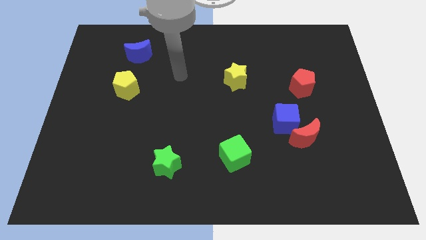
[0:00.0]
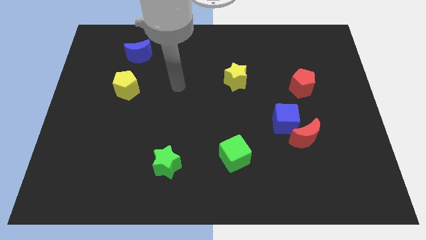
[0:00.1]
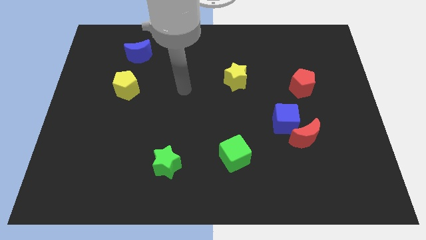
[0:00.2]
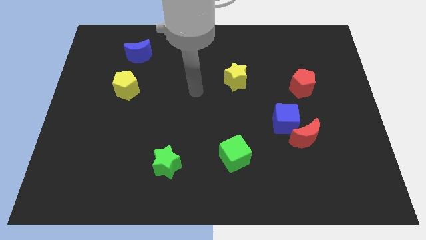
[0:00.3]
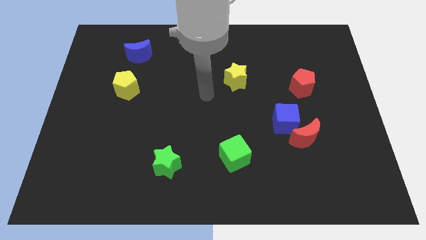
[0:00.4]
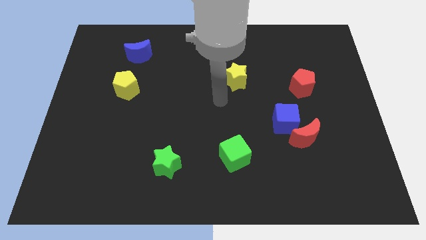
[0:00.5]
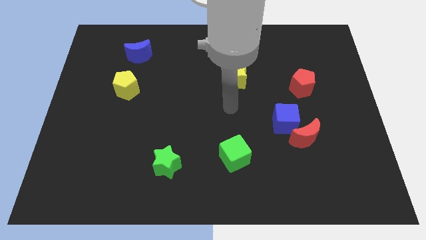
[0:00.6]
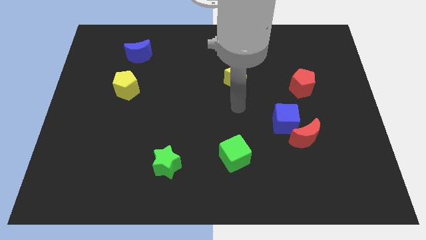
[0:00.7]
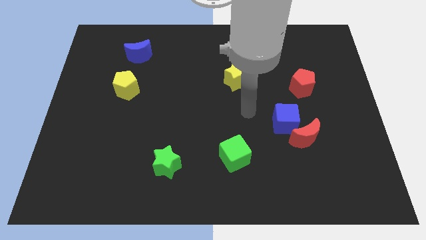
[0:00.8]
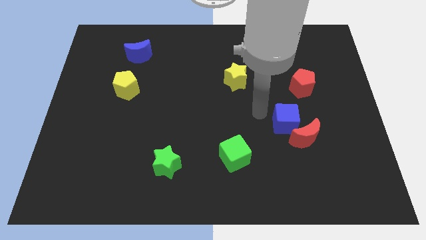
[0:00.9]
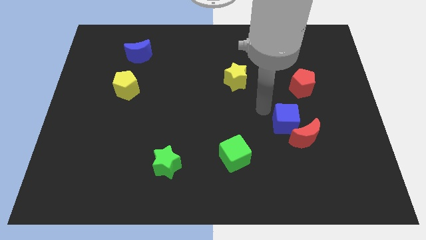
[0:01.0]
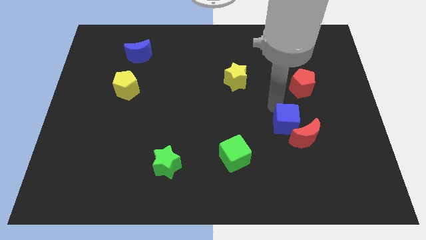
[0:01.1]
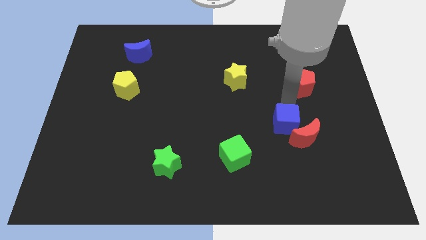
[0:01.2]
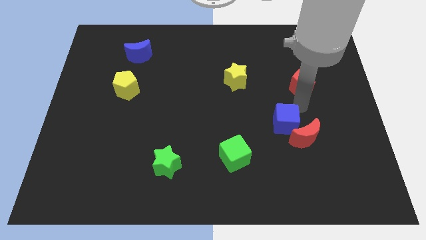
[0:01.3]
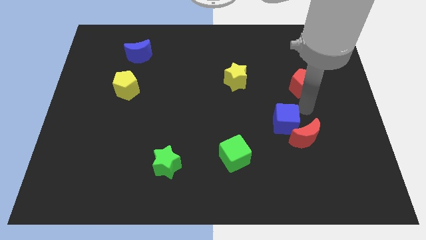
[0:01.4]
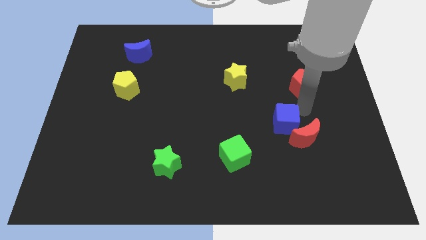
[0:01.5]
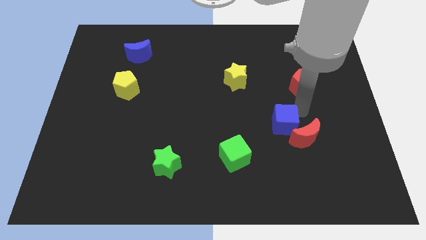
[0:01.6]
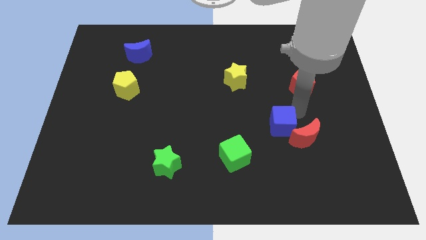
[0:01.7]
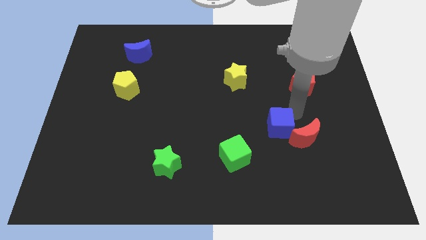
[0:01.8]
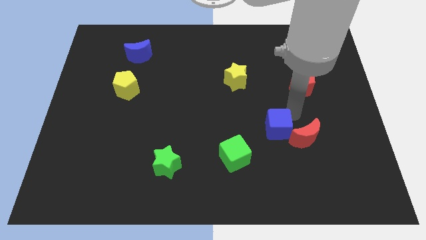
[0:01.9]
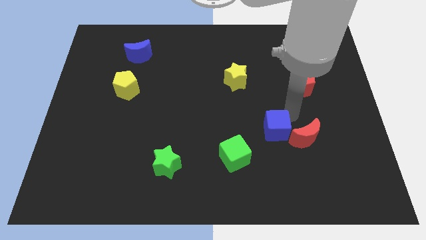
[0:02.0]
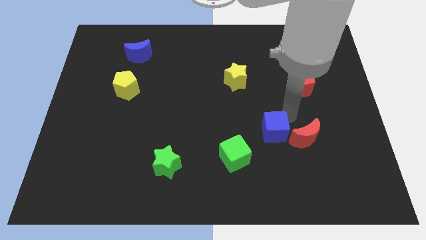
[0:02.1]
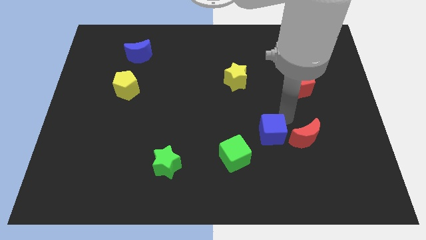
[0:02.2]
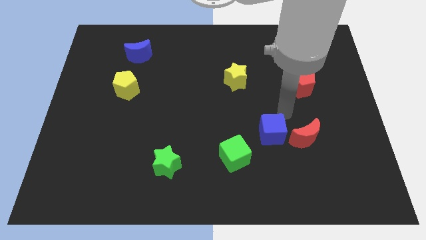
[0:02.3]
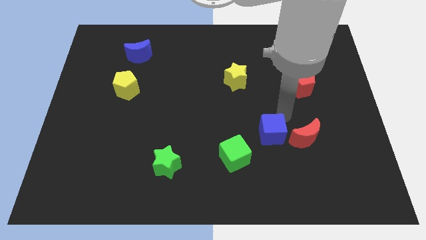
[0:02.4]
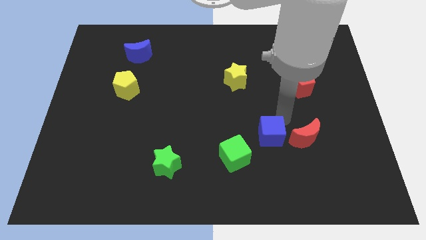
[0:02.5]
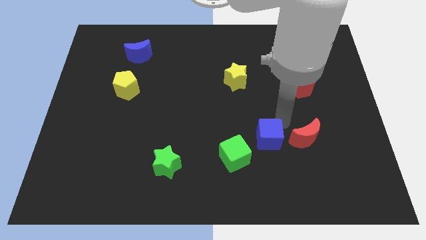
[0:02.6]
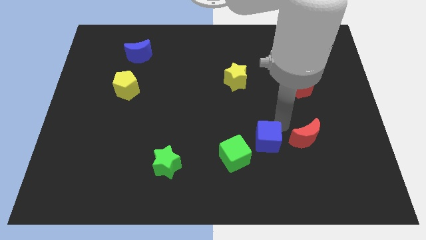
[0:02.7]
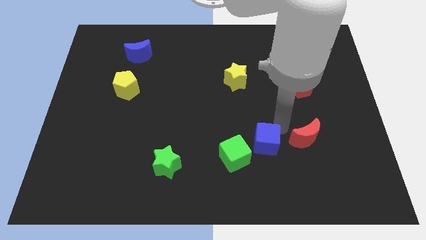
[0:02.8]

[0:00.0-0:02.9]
push the blue cube downwards and then left slightly

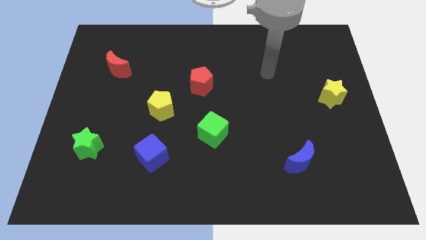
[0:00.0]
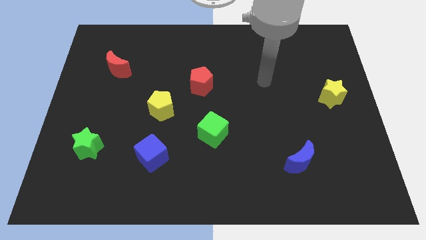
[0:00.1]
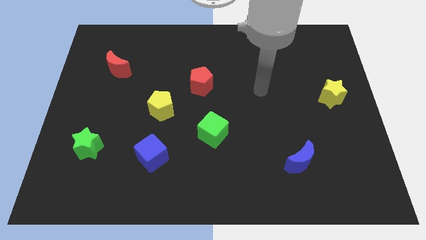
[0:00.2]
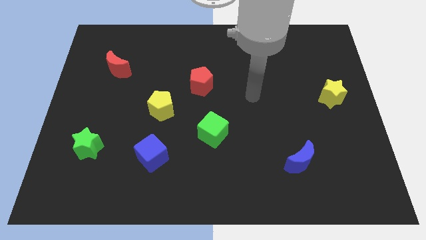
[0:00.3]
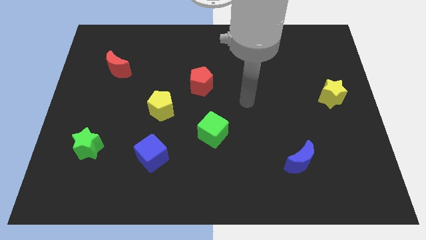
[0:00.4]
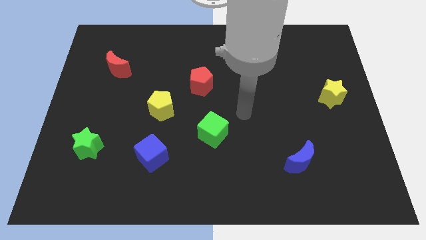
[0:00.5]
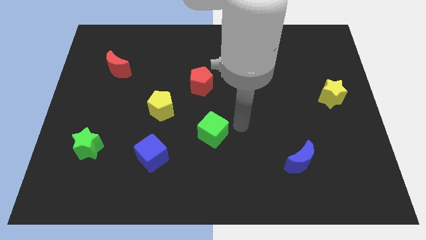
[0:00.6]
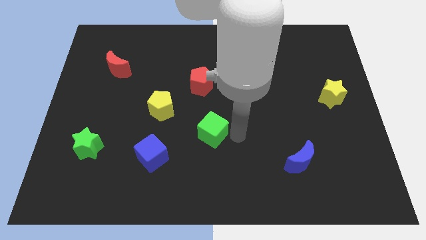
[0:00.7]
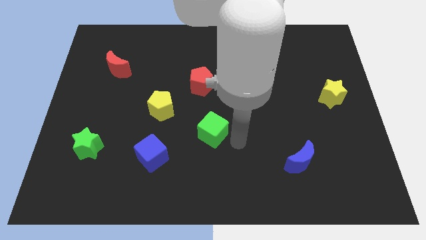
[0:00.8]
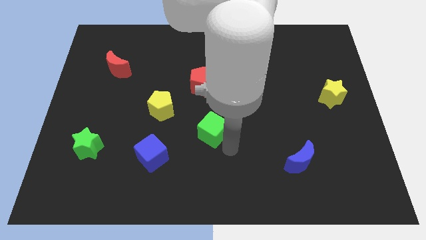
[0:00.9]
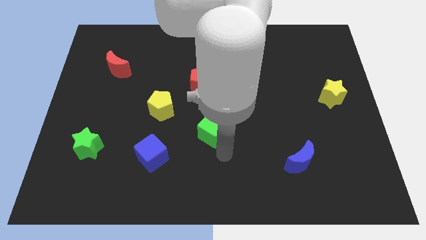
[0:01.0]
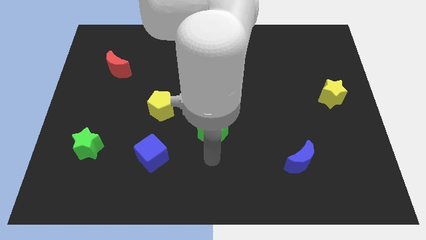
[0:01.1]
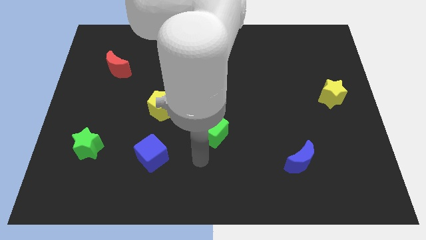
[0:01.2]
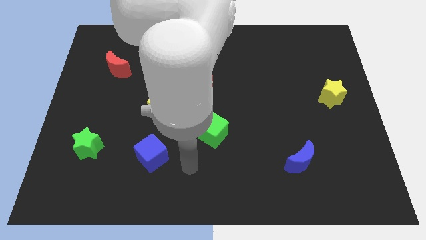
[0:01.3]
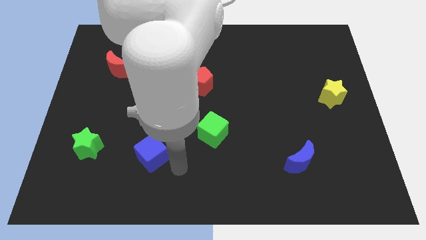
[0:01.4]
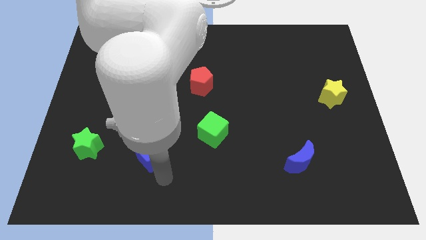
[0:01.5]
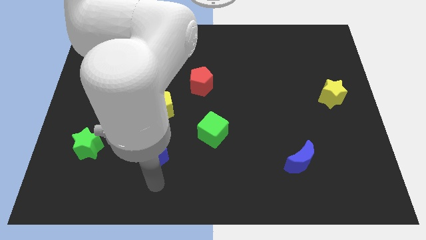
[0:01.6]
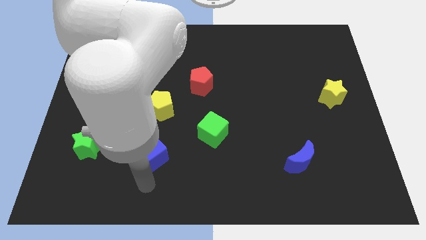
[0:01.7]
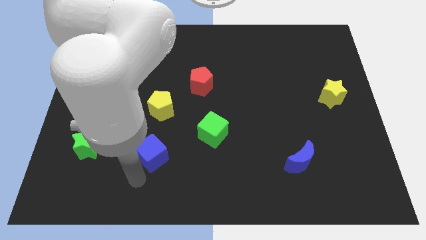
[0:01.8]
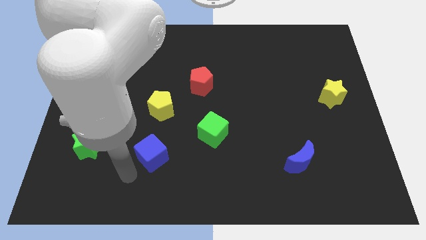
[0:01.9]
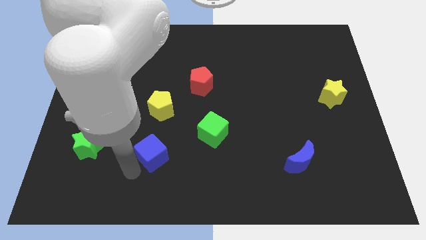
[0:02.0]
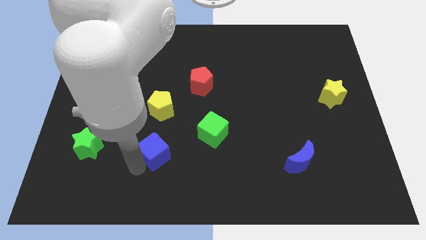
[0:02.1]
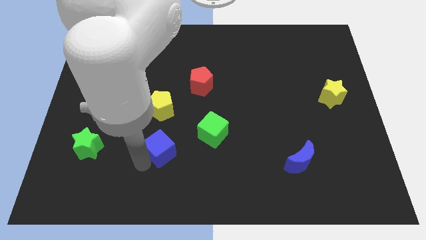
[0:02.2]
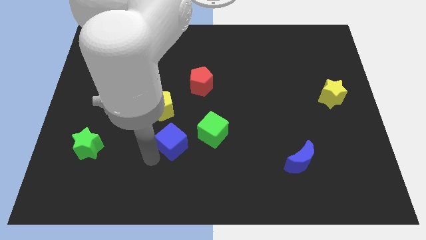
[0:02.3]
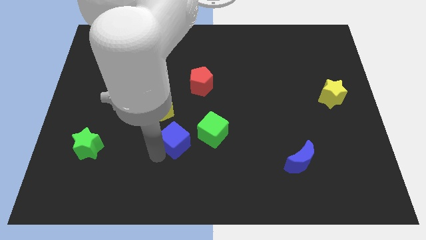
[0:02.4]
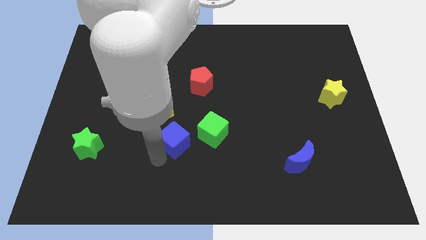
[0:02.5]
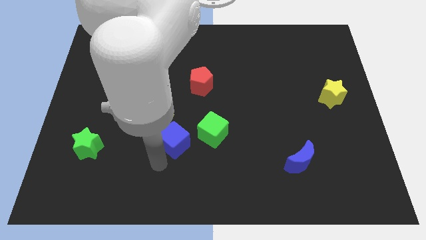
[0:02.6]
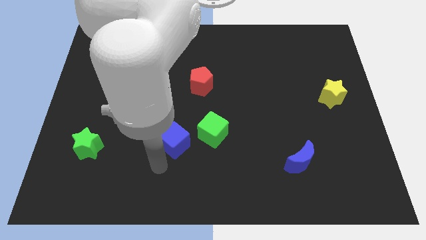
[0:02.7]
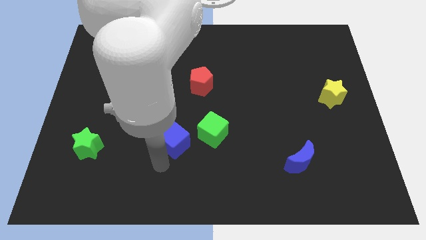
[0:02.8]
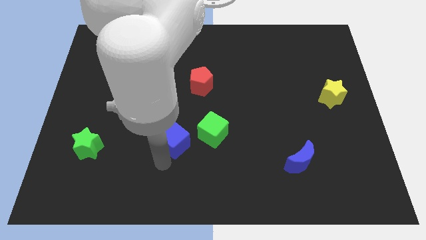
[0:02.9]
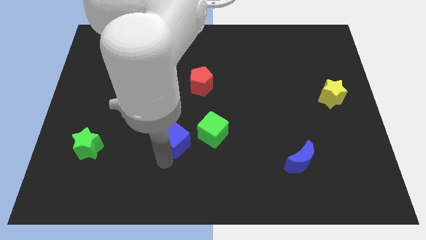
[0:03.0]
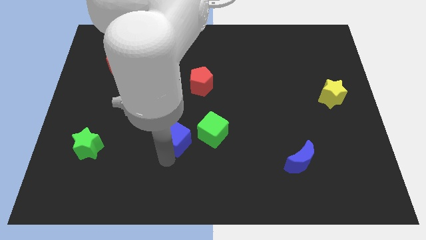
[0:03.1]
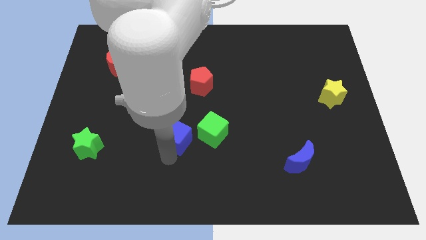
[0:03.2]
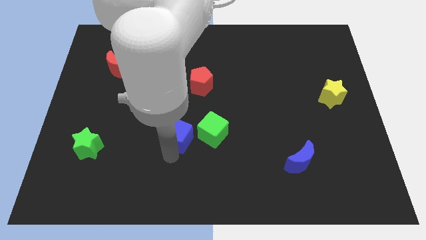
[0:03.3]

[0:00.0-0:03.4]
slightly move the blue cube up and to the right diagonally

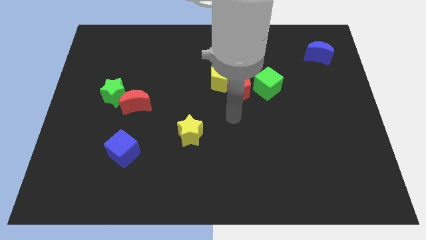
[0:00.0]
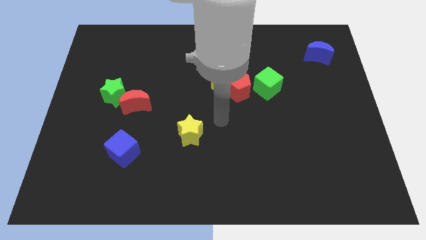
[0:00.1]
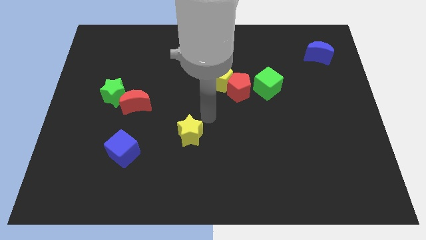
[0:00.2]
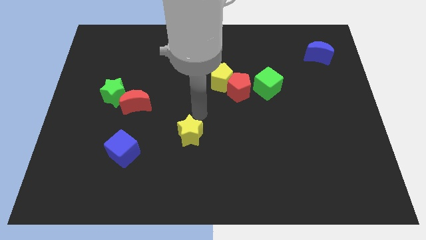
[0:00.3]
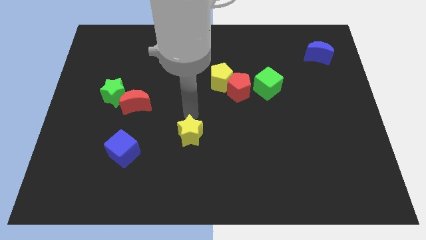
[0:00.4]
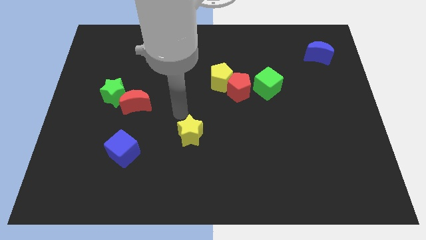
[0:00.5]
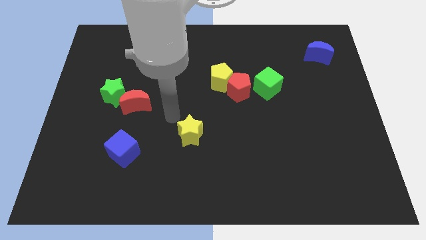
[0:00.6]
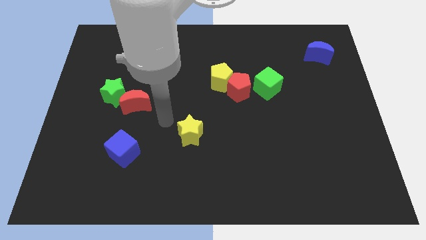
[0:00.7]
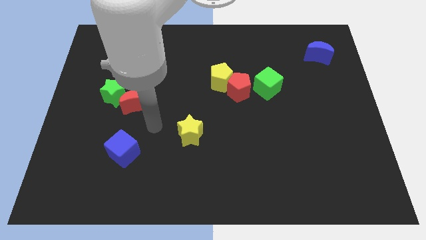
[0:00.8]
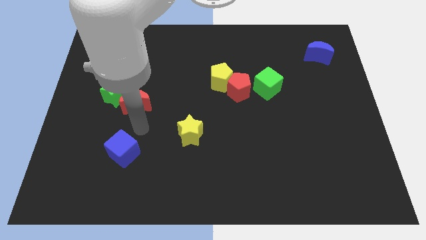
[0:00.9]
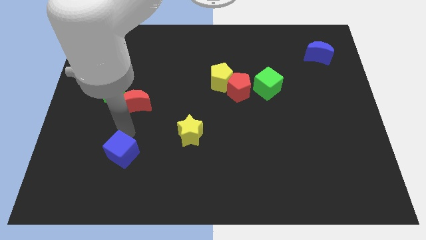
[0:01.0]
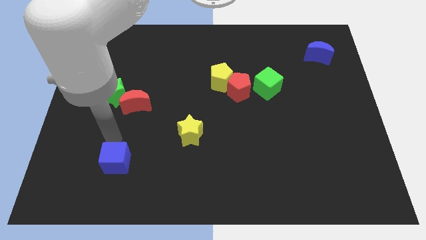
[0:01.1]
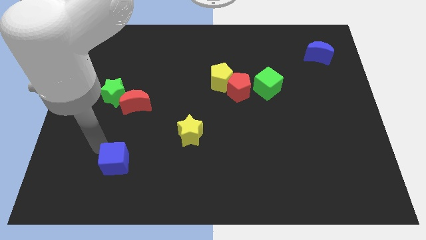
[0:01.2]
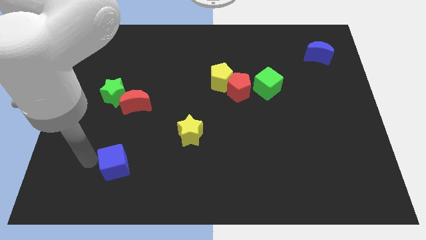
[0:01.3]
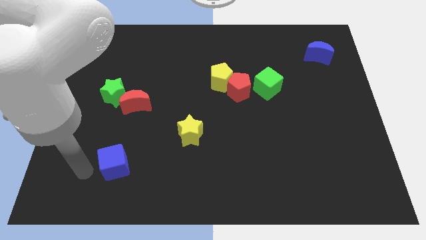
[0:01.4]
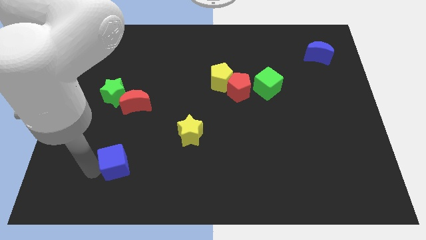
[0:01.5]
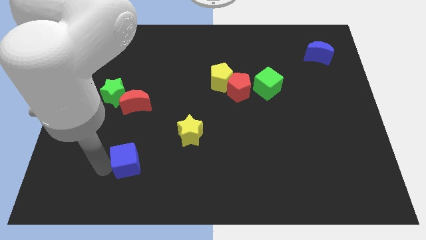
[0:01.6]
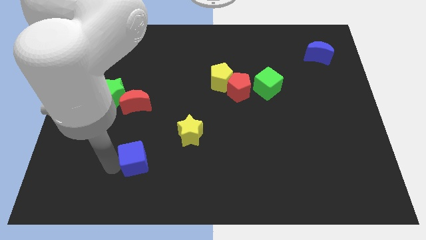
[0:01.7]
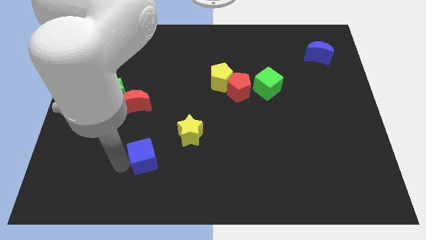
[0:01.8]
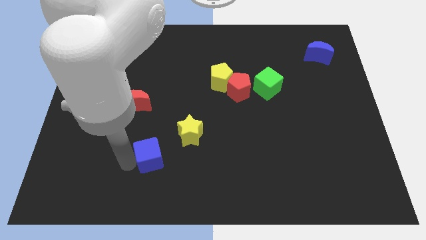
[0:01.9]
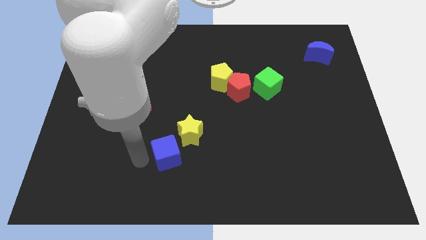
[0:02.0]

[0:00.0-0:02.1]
slide the blue cube somewhat right
